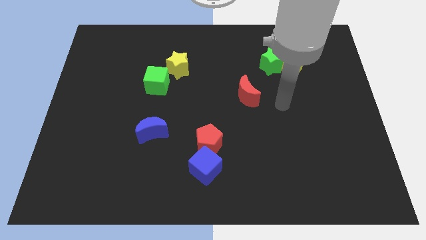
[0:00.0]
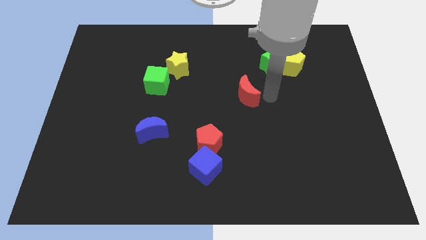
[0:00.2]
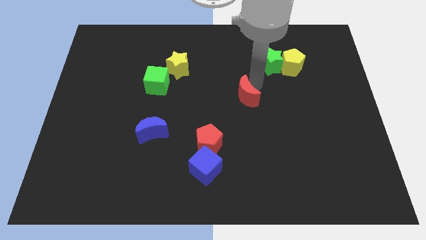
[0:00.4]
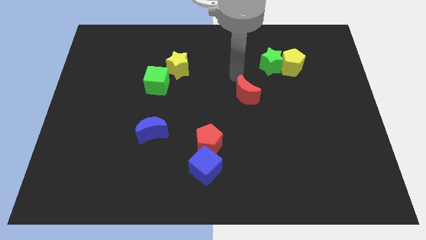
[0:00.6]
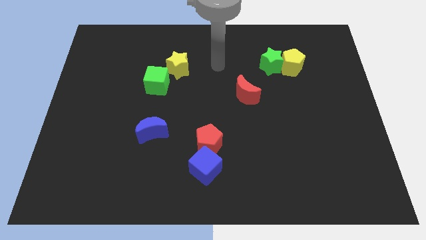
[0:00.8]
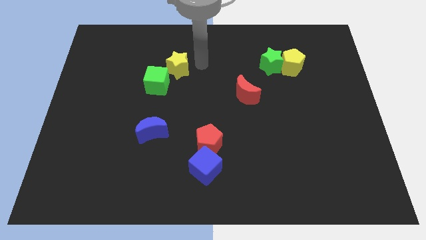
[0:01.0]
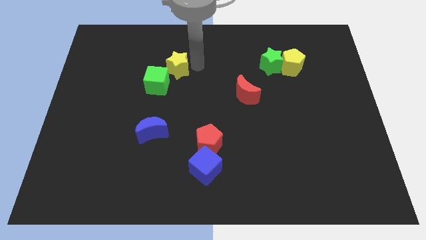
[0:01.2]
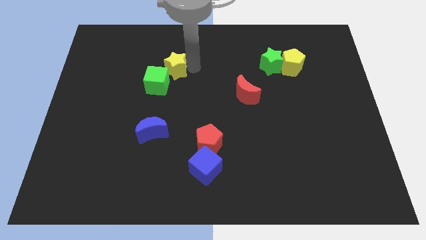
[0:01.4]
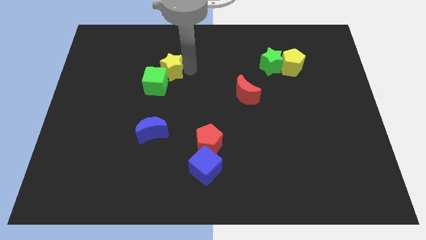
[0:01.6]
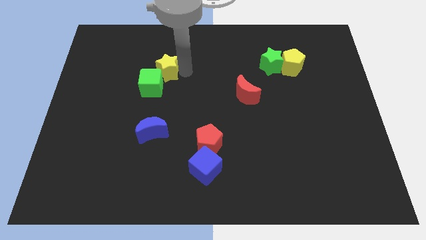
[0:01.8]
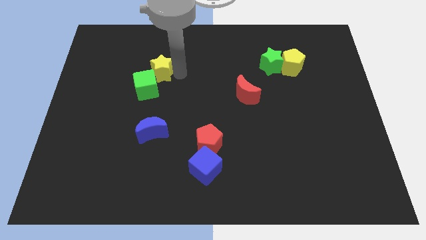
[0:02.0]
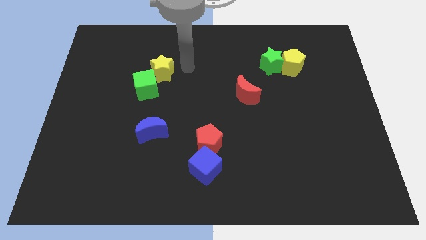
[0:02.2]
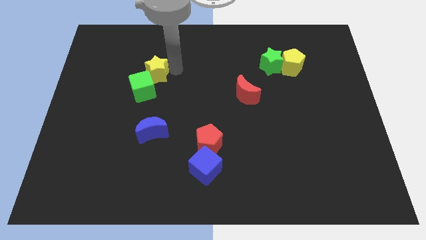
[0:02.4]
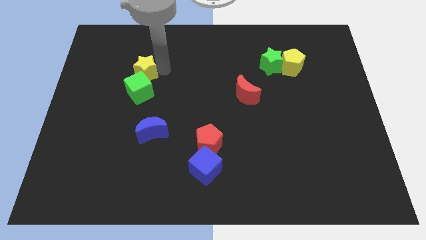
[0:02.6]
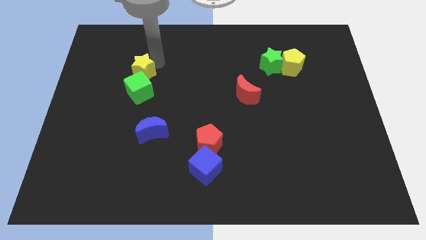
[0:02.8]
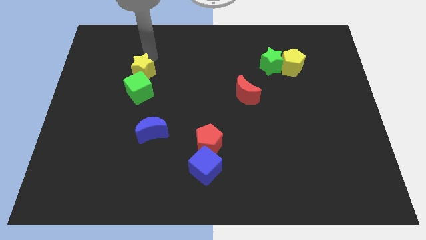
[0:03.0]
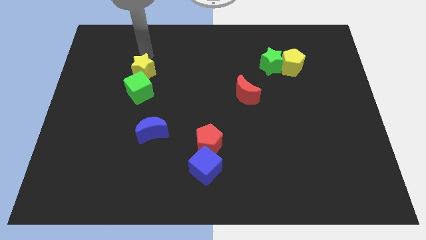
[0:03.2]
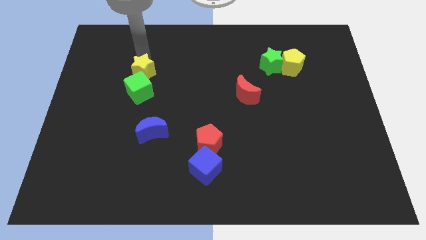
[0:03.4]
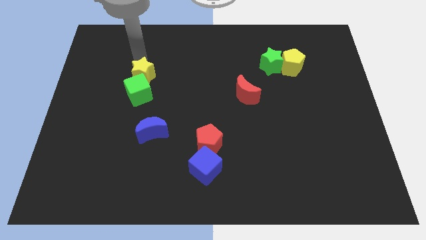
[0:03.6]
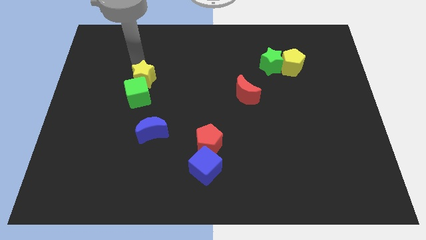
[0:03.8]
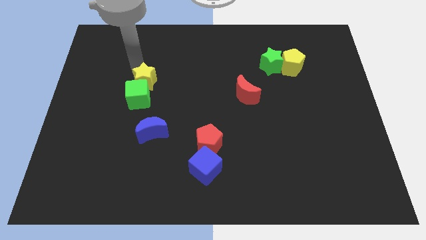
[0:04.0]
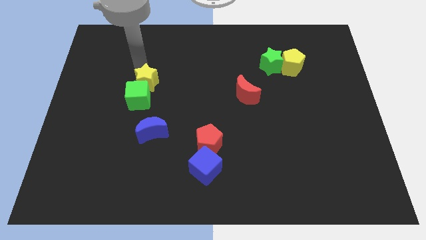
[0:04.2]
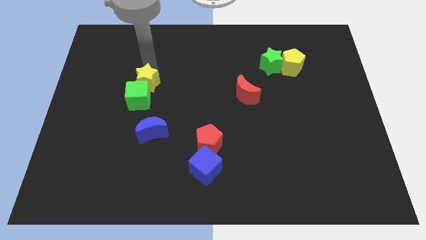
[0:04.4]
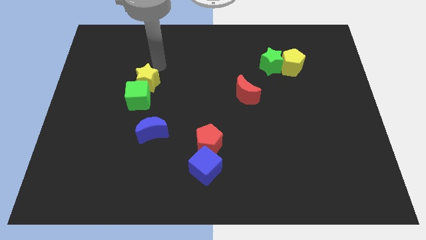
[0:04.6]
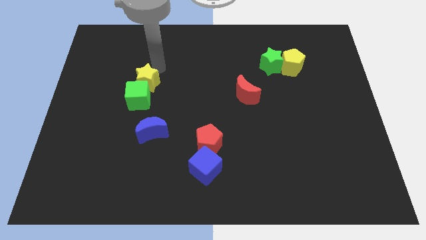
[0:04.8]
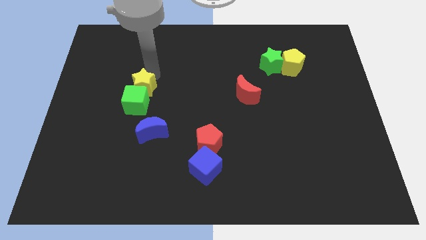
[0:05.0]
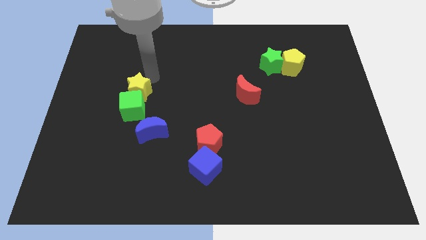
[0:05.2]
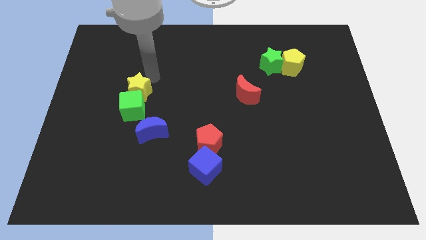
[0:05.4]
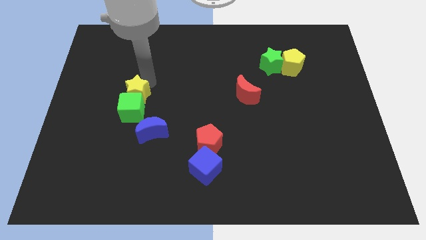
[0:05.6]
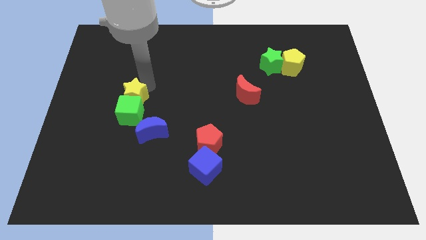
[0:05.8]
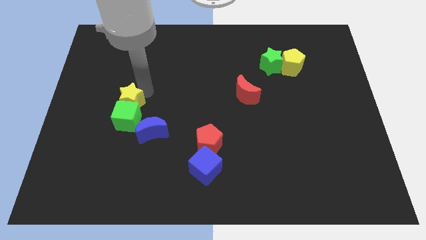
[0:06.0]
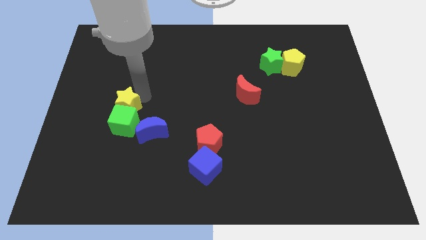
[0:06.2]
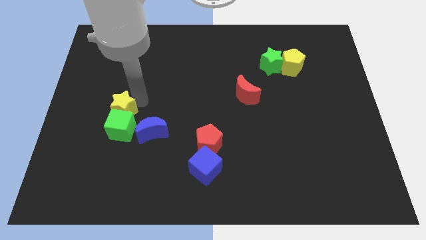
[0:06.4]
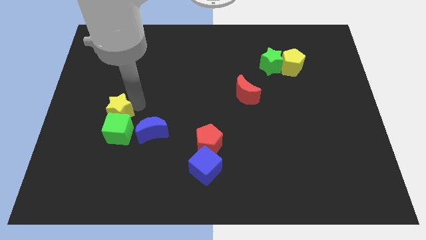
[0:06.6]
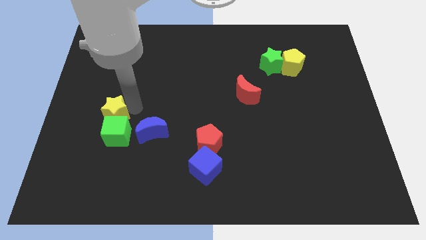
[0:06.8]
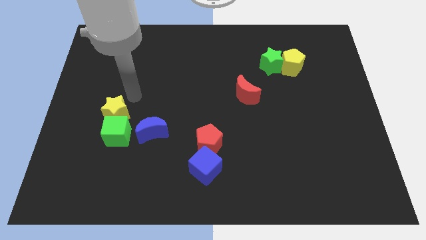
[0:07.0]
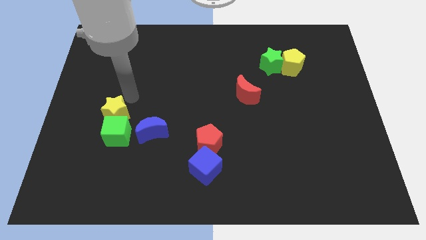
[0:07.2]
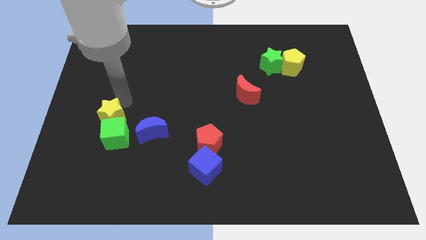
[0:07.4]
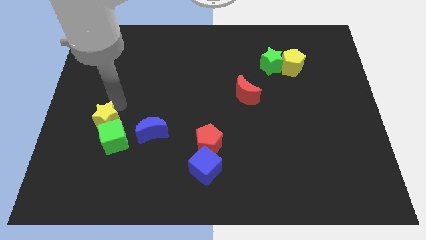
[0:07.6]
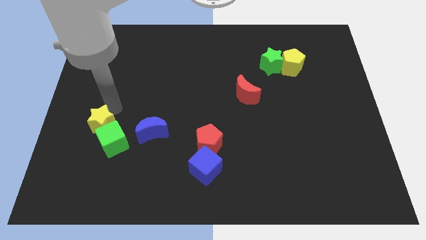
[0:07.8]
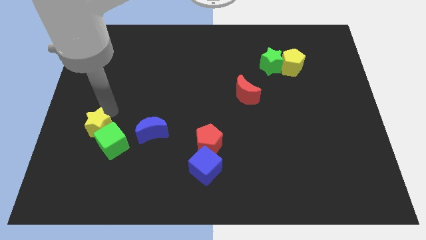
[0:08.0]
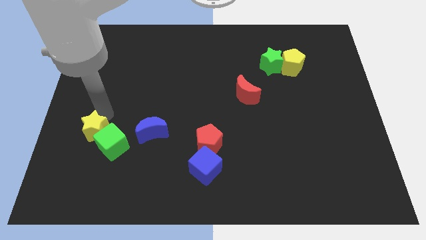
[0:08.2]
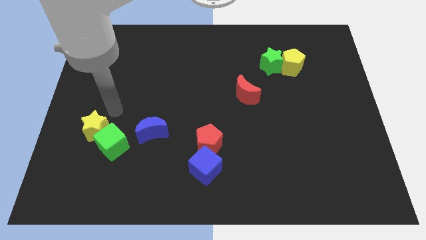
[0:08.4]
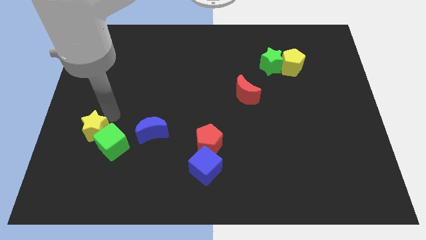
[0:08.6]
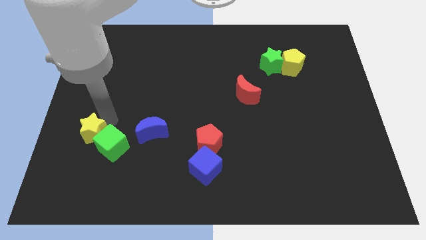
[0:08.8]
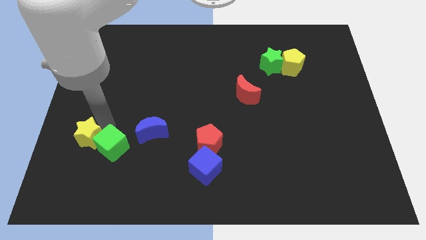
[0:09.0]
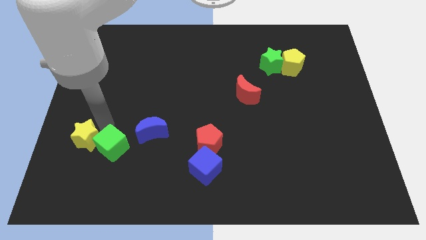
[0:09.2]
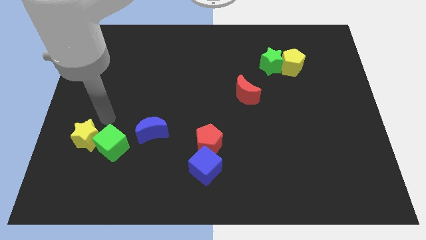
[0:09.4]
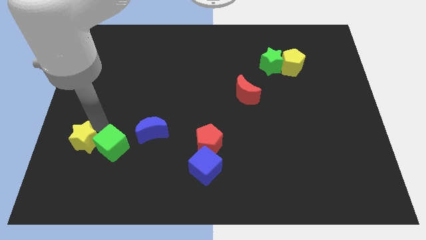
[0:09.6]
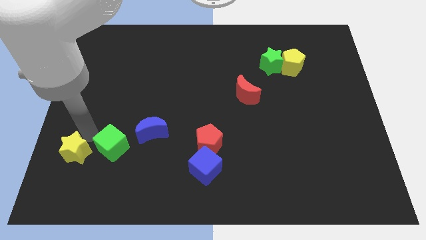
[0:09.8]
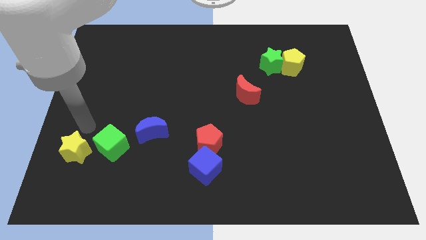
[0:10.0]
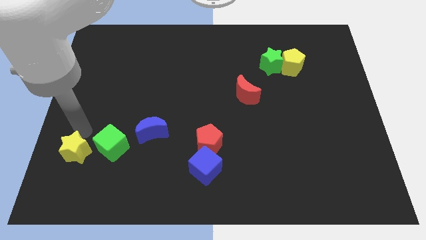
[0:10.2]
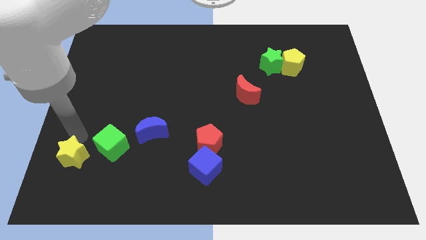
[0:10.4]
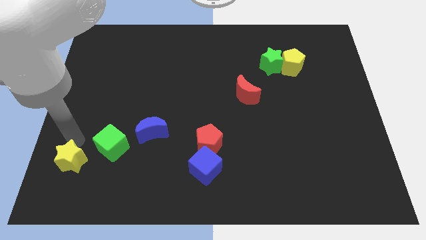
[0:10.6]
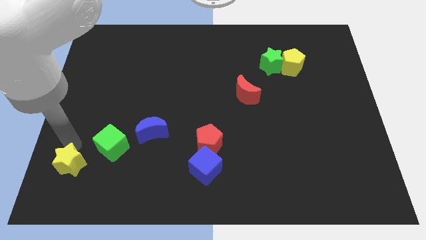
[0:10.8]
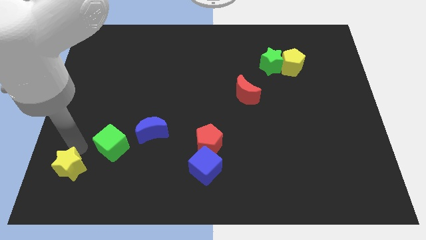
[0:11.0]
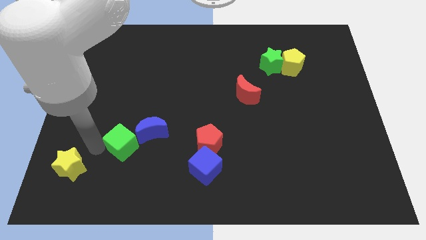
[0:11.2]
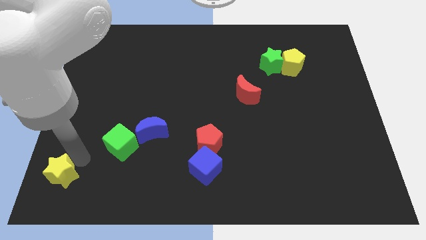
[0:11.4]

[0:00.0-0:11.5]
slide the yellow star to the bottom left
